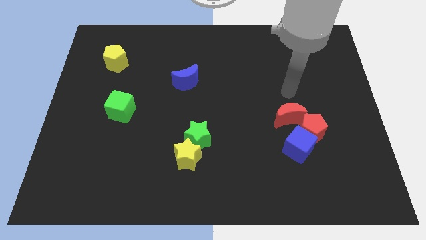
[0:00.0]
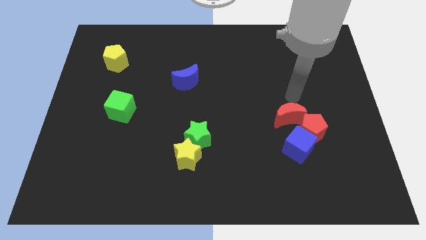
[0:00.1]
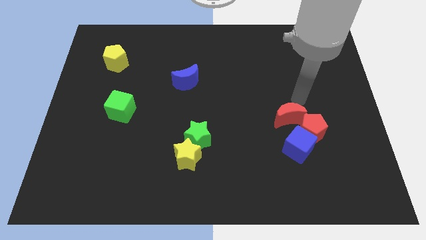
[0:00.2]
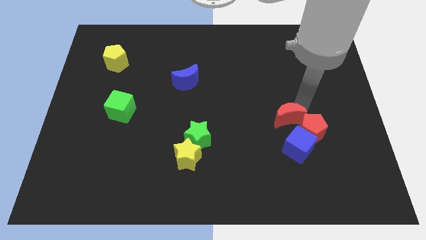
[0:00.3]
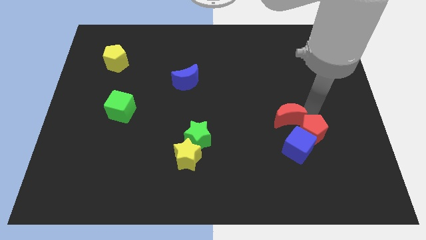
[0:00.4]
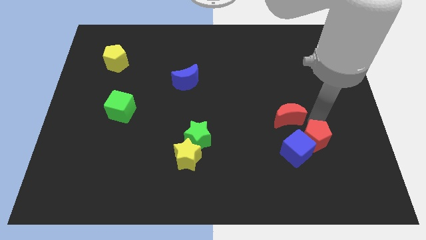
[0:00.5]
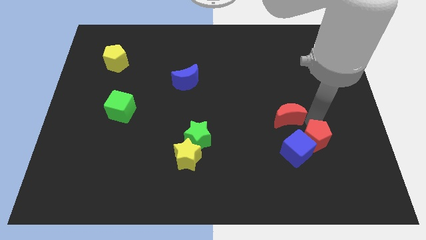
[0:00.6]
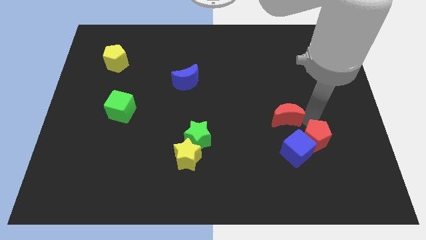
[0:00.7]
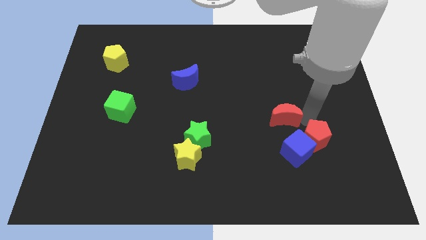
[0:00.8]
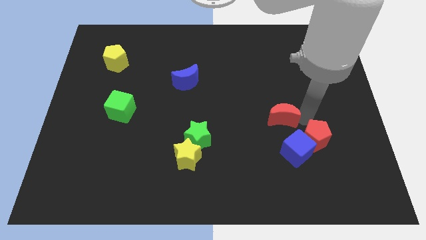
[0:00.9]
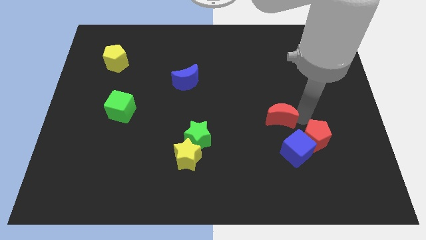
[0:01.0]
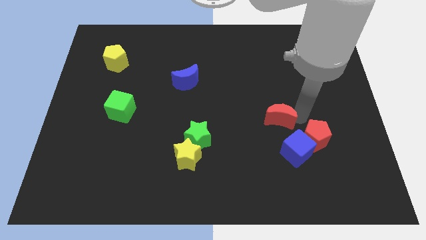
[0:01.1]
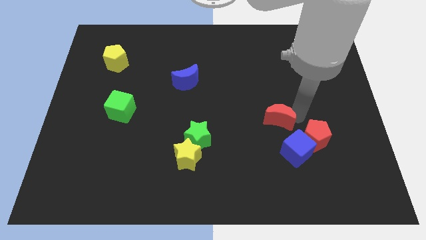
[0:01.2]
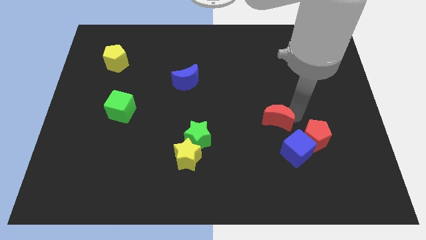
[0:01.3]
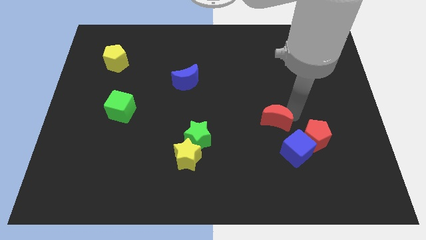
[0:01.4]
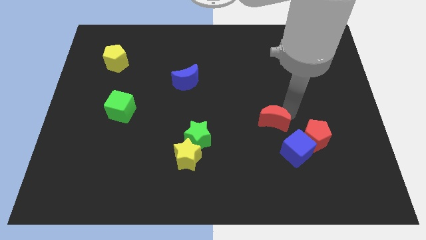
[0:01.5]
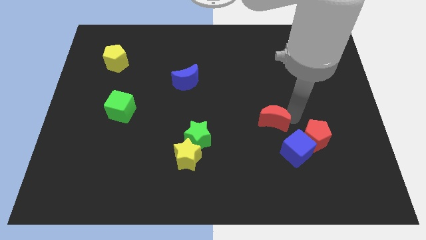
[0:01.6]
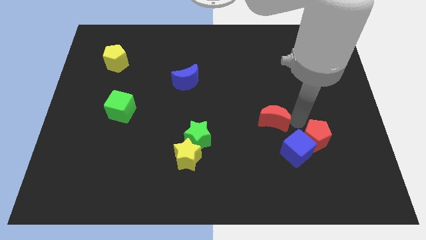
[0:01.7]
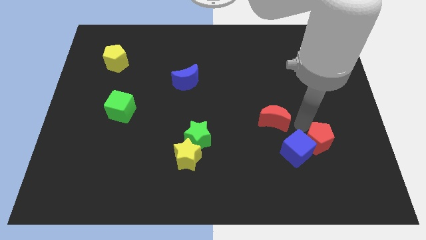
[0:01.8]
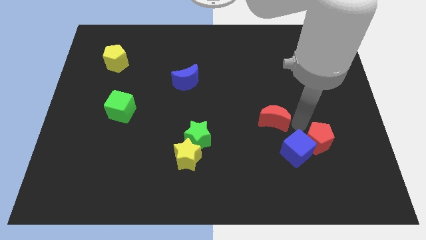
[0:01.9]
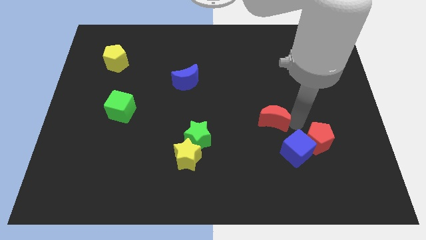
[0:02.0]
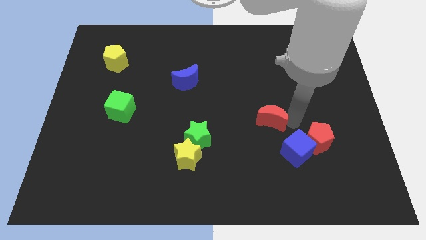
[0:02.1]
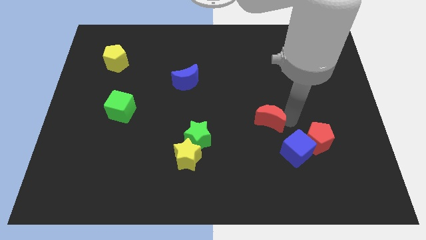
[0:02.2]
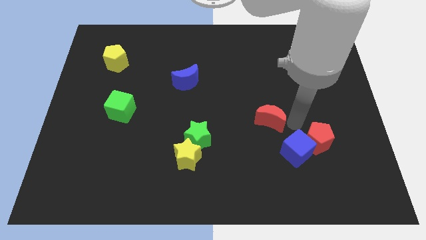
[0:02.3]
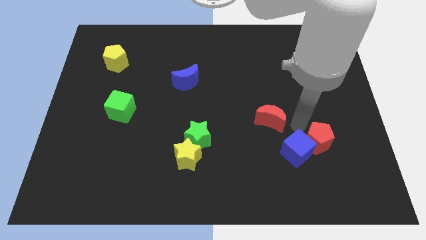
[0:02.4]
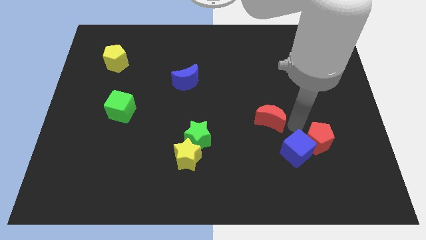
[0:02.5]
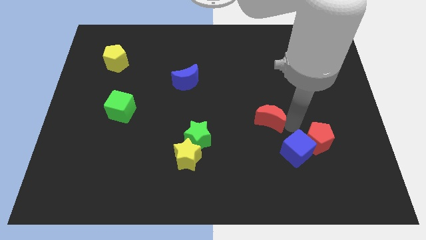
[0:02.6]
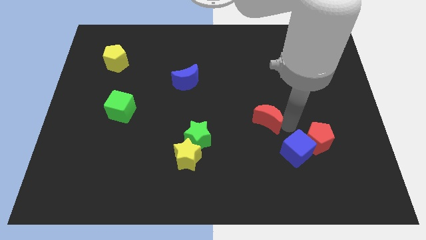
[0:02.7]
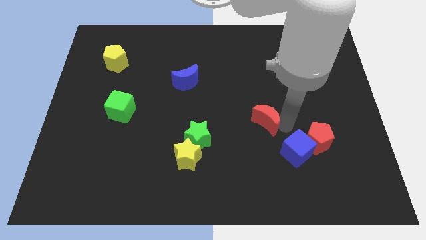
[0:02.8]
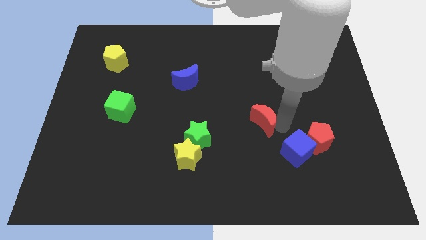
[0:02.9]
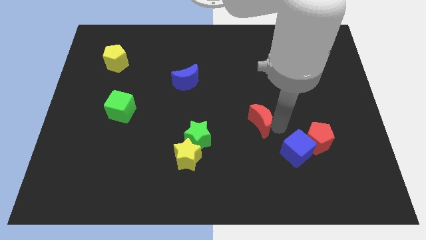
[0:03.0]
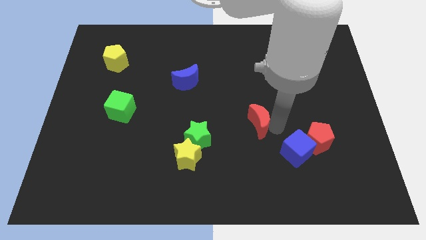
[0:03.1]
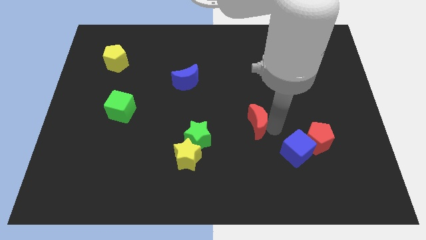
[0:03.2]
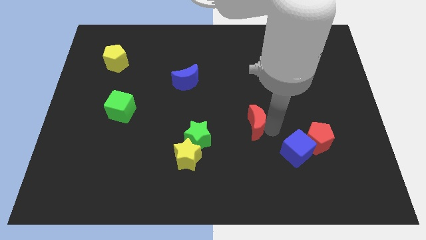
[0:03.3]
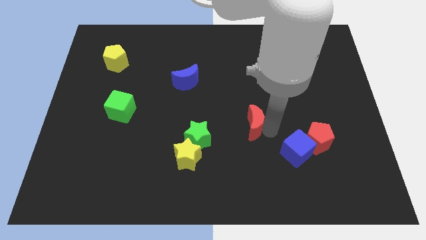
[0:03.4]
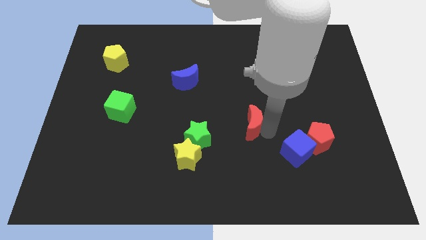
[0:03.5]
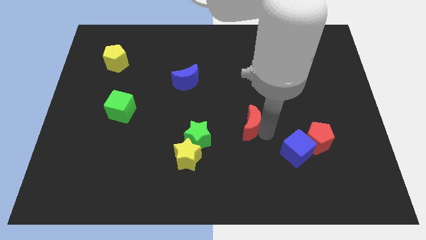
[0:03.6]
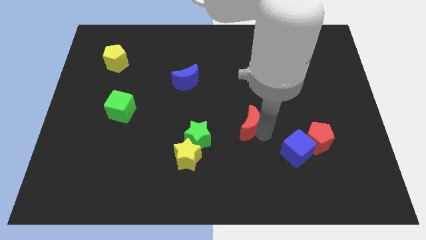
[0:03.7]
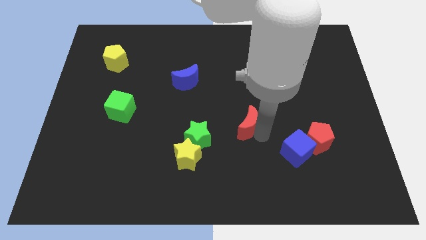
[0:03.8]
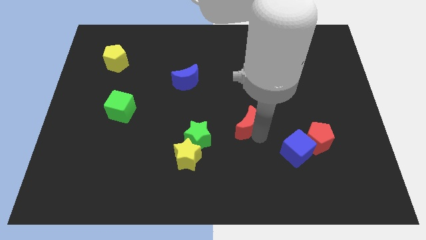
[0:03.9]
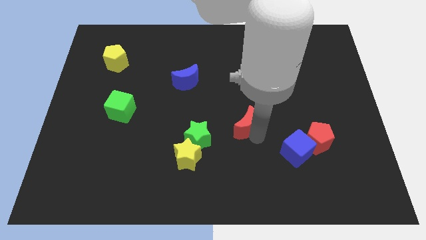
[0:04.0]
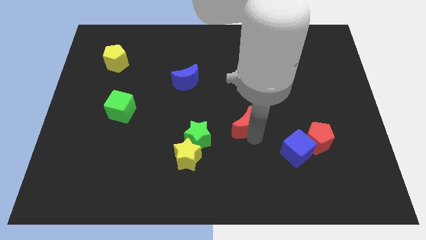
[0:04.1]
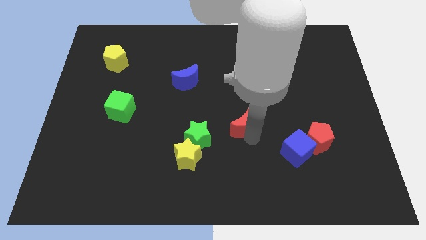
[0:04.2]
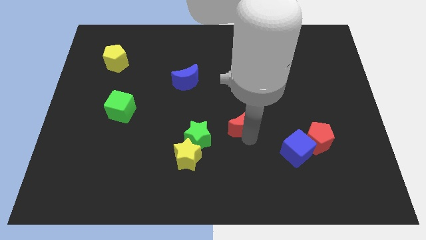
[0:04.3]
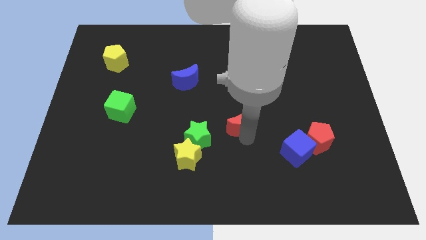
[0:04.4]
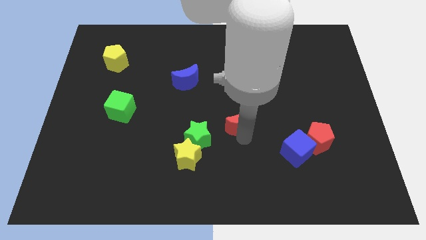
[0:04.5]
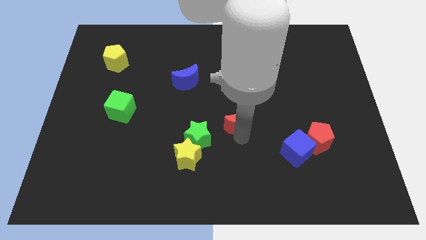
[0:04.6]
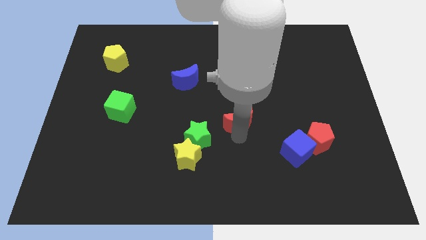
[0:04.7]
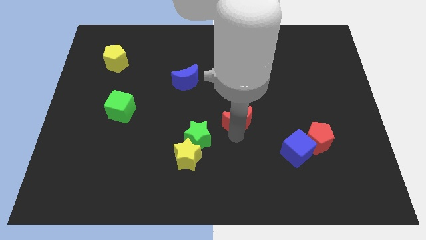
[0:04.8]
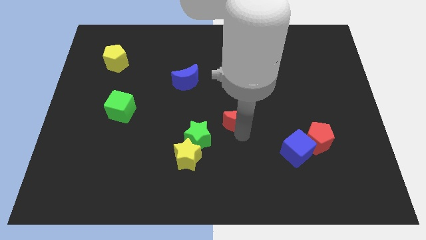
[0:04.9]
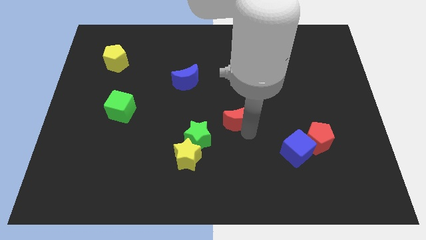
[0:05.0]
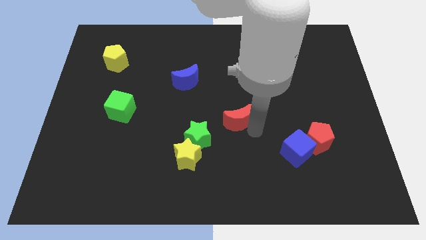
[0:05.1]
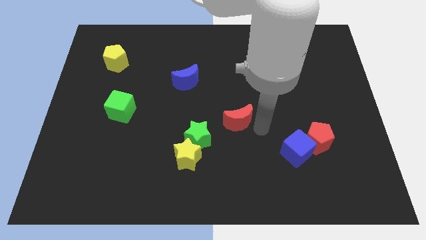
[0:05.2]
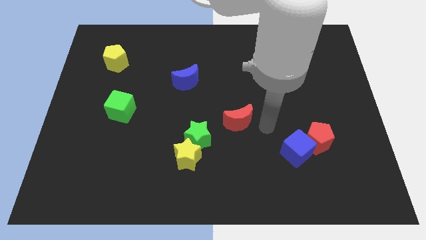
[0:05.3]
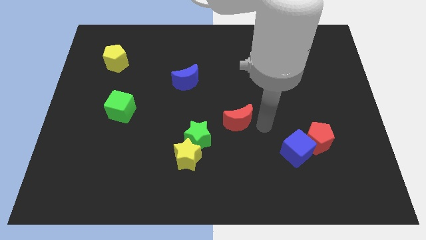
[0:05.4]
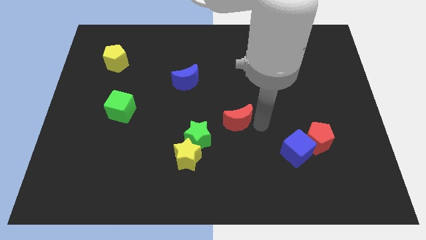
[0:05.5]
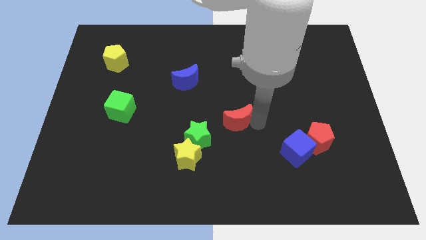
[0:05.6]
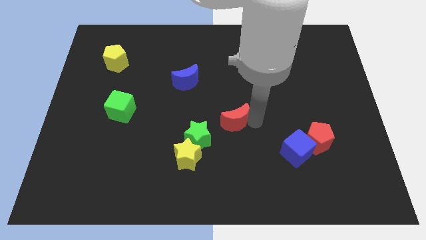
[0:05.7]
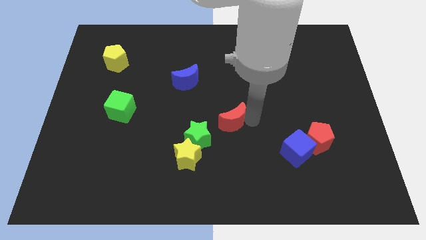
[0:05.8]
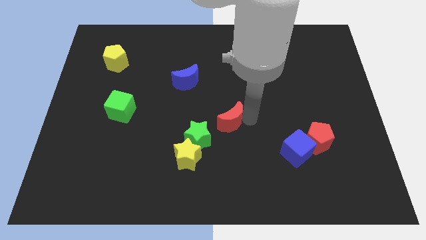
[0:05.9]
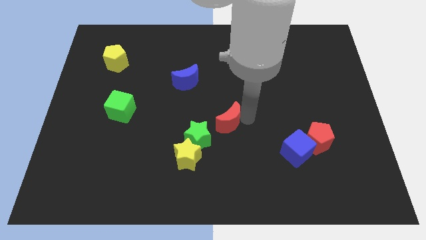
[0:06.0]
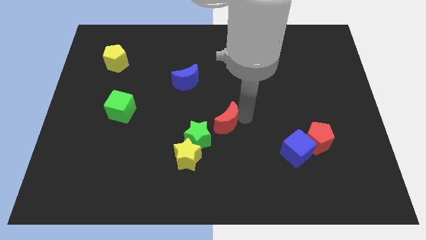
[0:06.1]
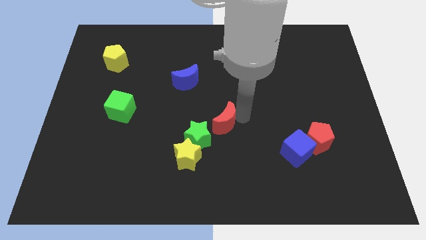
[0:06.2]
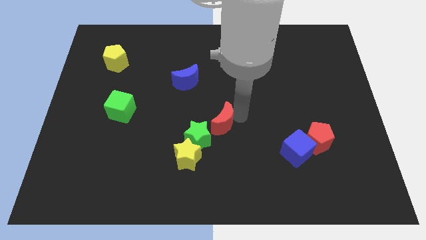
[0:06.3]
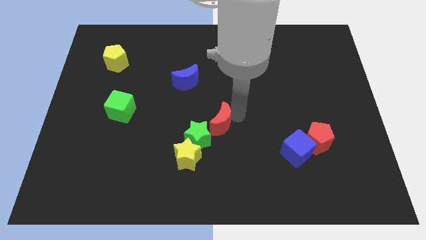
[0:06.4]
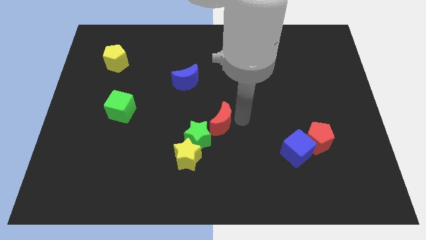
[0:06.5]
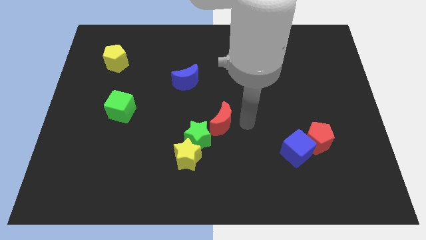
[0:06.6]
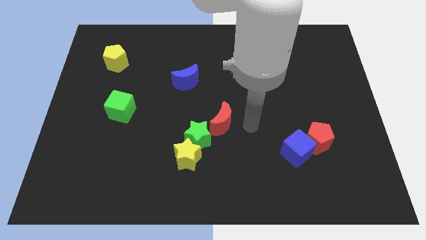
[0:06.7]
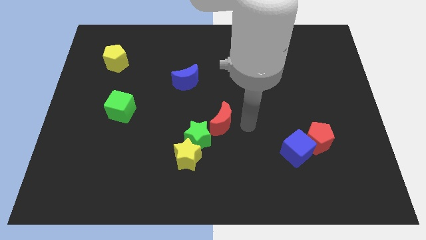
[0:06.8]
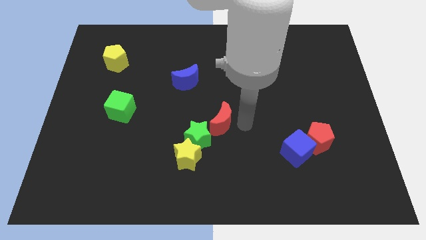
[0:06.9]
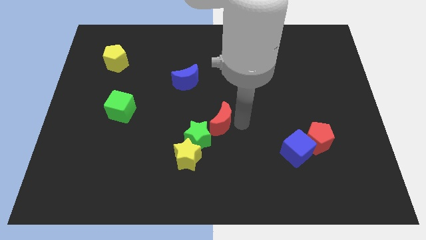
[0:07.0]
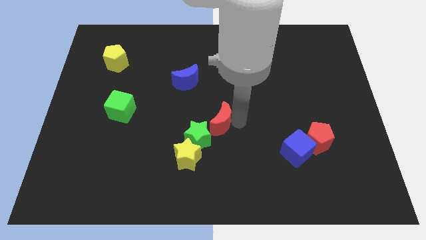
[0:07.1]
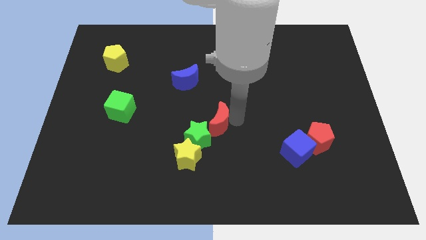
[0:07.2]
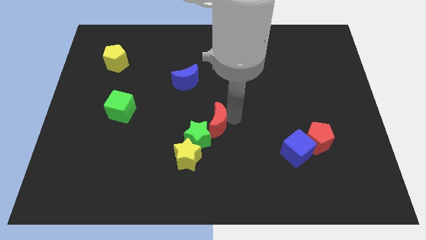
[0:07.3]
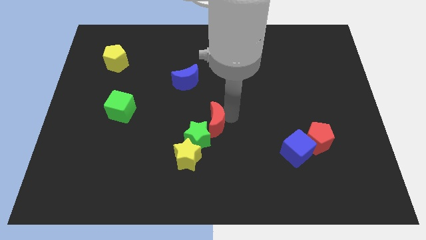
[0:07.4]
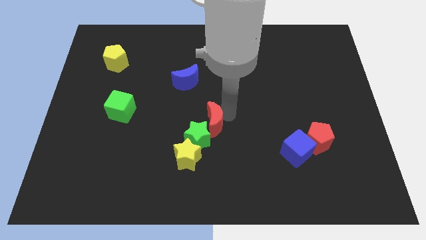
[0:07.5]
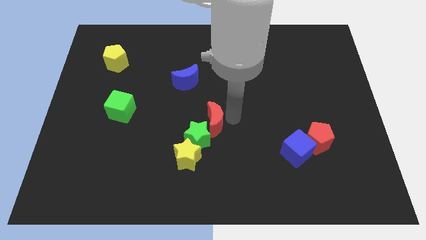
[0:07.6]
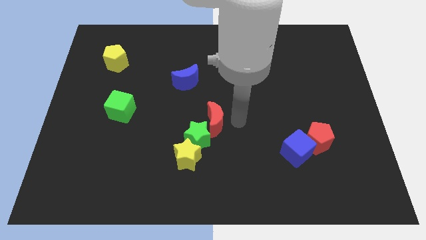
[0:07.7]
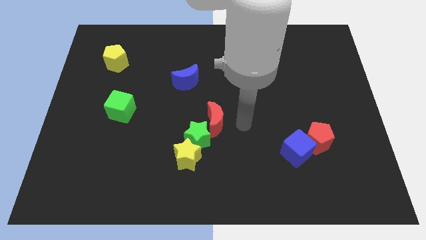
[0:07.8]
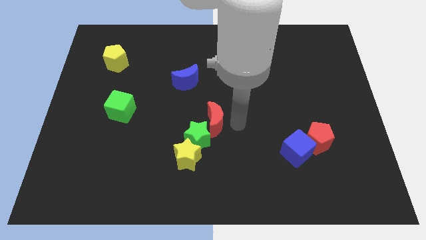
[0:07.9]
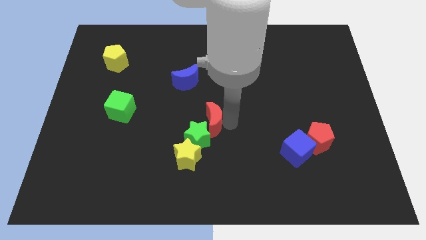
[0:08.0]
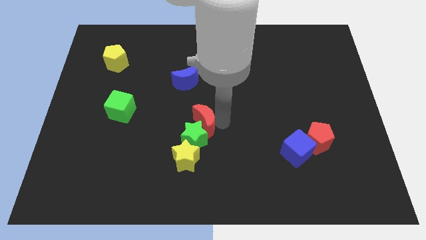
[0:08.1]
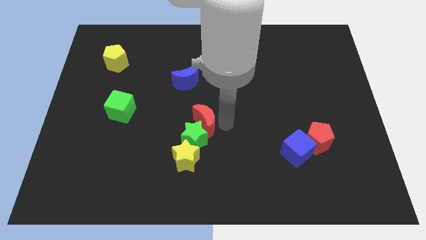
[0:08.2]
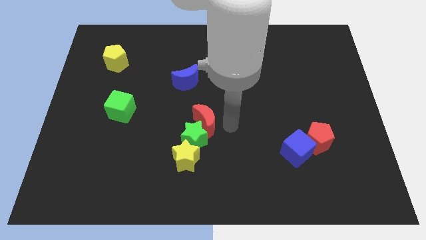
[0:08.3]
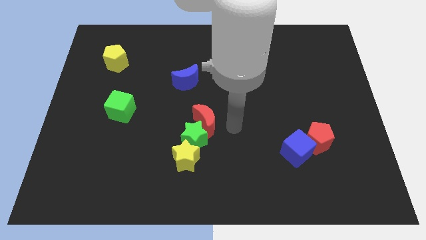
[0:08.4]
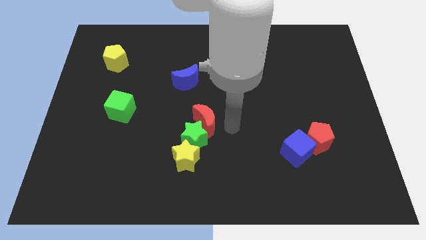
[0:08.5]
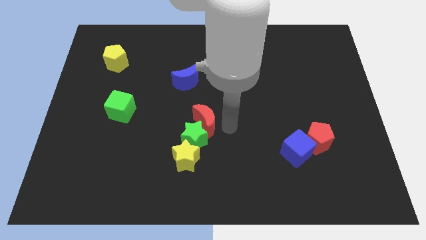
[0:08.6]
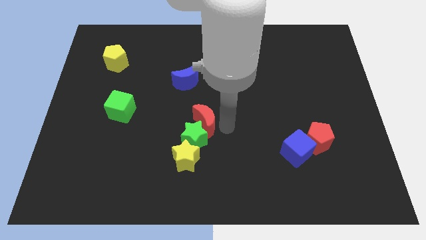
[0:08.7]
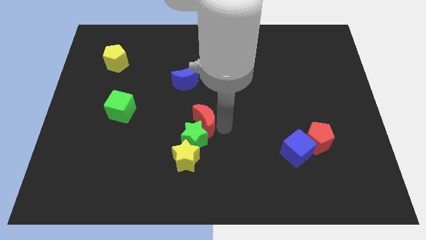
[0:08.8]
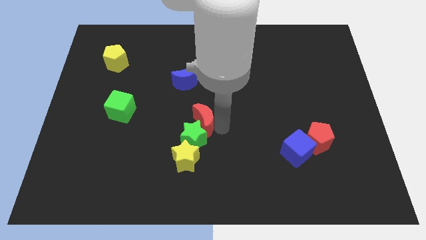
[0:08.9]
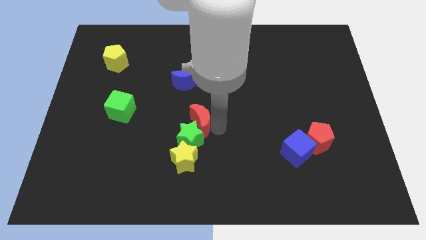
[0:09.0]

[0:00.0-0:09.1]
slide the red moon left
